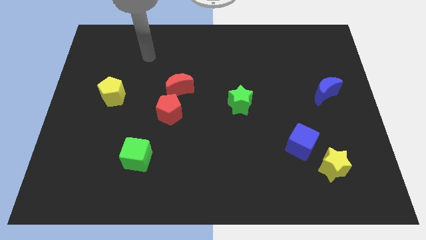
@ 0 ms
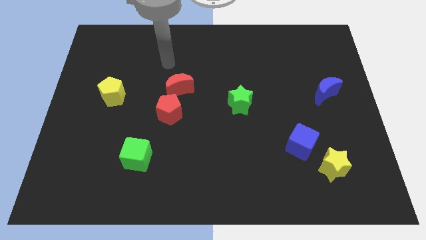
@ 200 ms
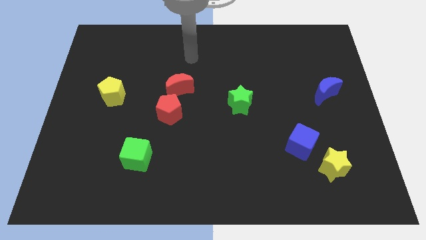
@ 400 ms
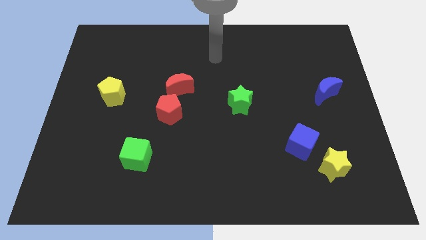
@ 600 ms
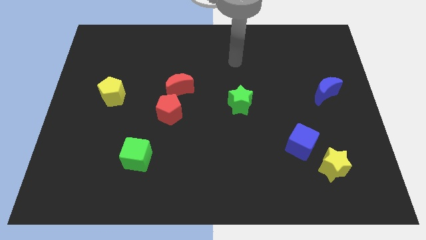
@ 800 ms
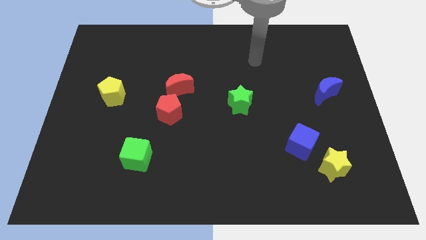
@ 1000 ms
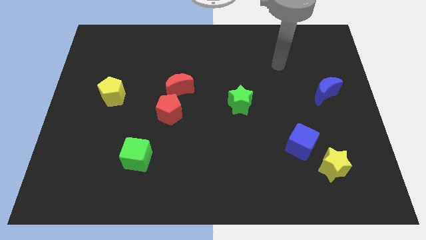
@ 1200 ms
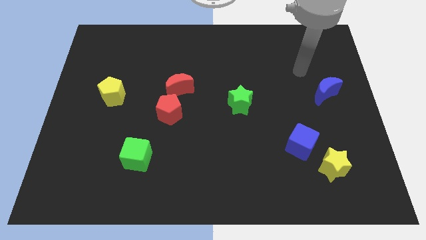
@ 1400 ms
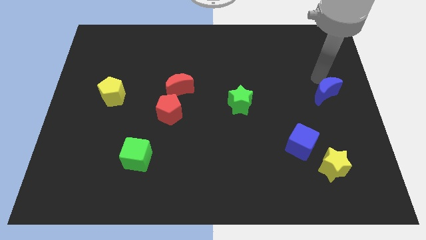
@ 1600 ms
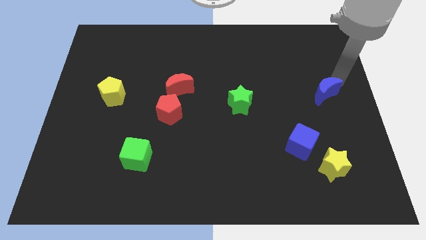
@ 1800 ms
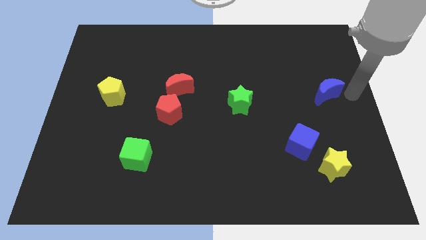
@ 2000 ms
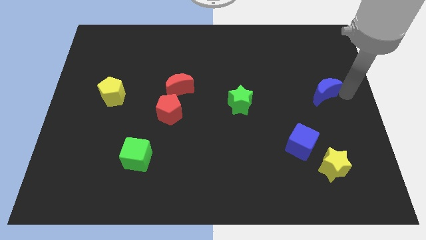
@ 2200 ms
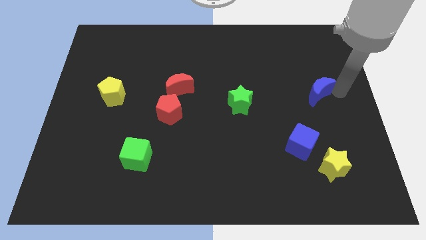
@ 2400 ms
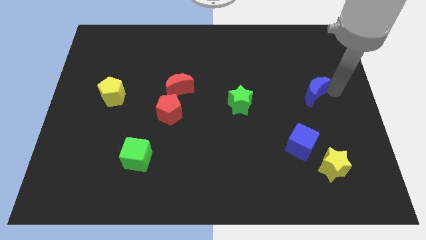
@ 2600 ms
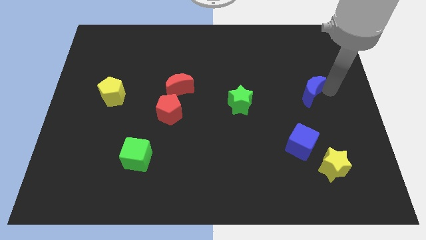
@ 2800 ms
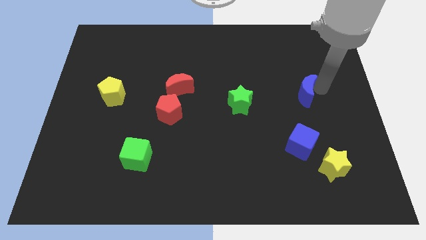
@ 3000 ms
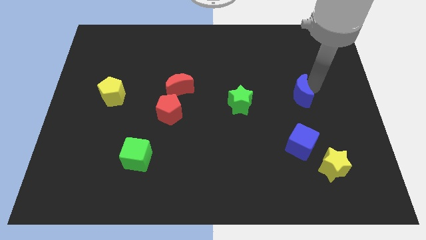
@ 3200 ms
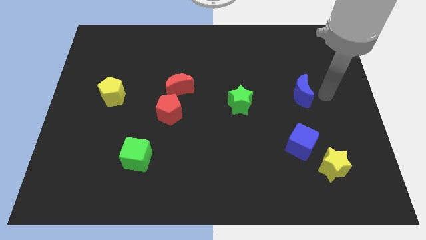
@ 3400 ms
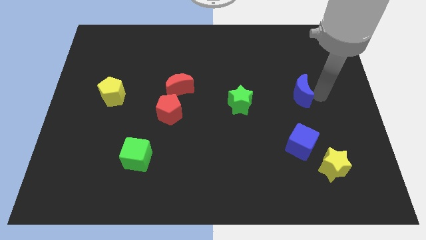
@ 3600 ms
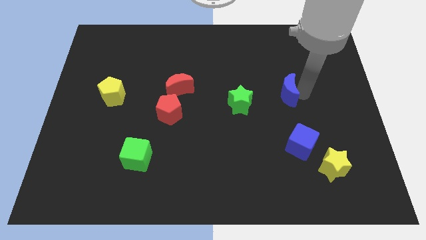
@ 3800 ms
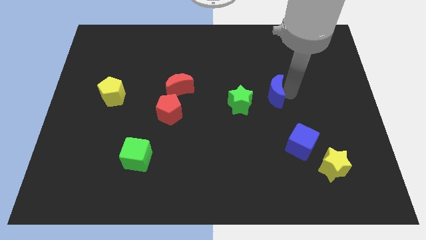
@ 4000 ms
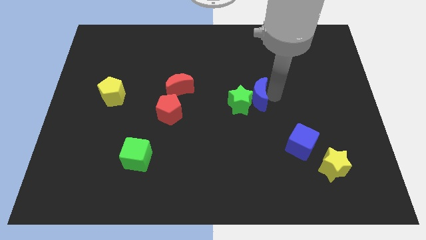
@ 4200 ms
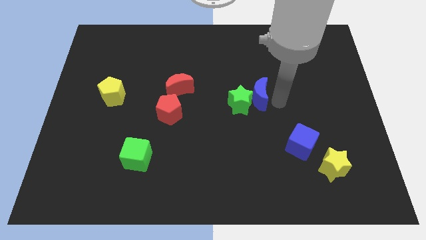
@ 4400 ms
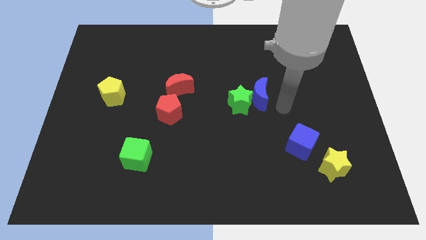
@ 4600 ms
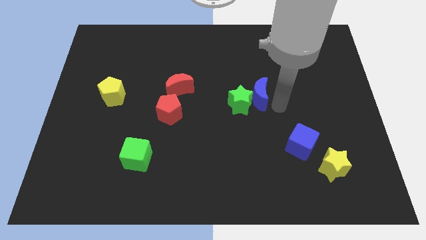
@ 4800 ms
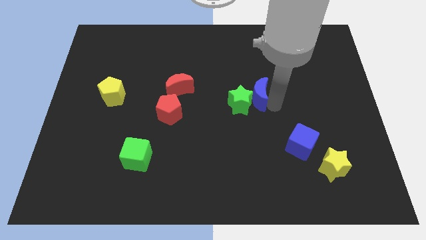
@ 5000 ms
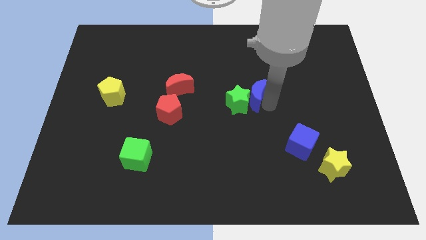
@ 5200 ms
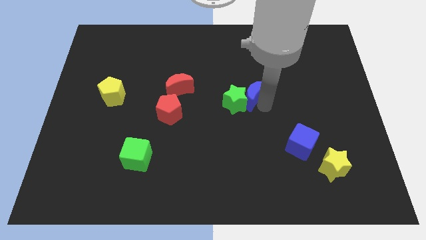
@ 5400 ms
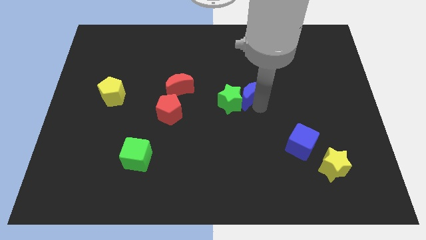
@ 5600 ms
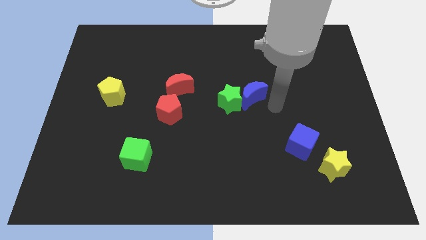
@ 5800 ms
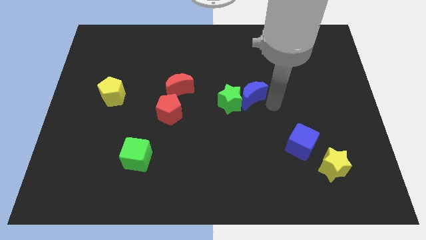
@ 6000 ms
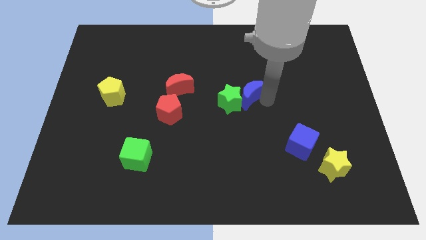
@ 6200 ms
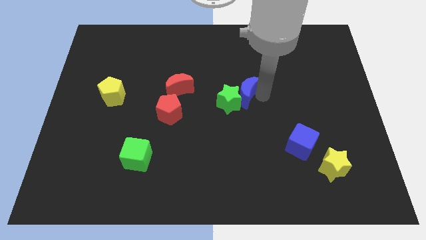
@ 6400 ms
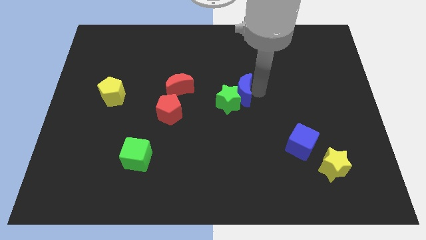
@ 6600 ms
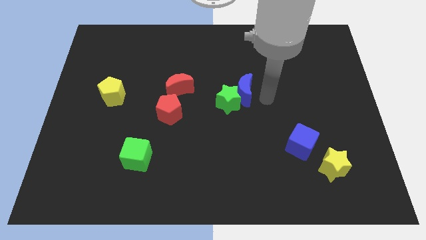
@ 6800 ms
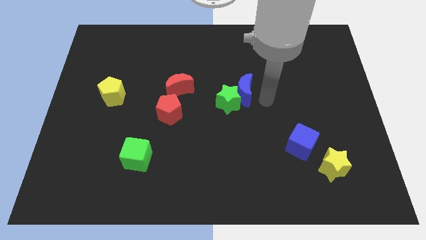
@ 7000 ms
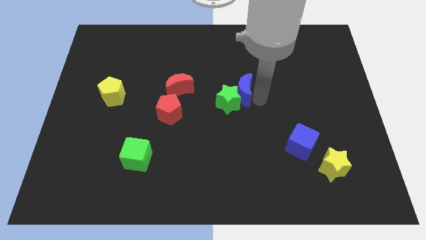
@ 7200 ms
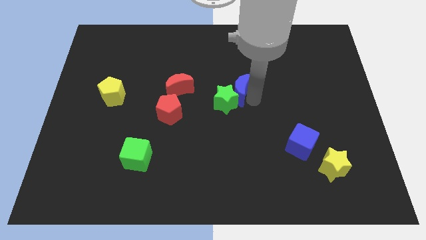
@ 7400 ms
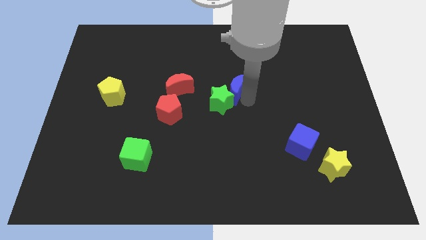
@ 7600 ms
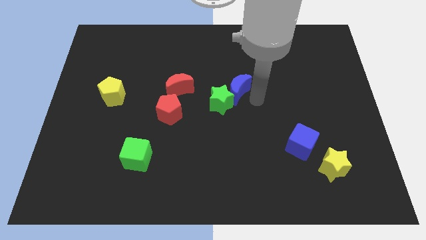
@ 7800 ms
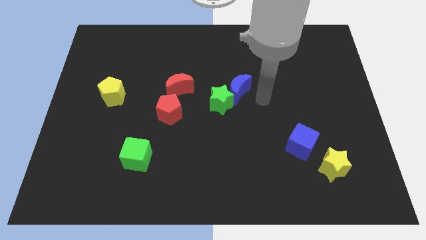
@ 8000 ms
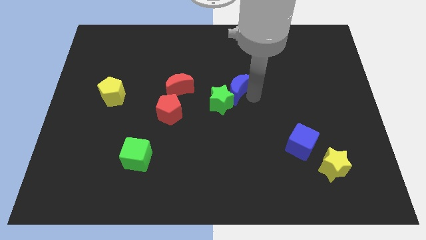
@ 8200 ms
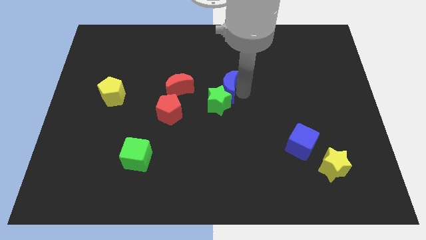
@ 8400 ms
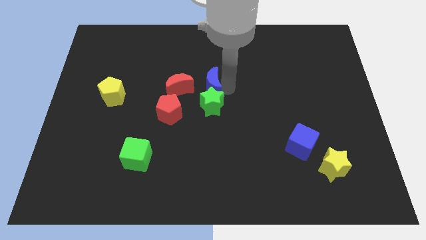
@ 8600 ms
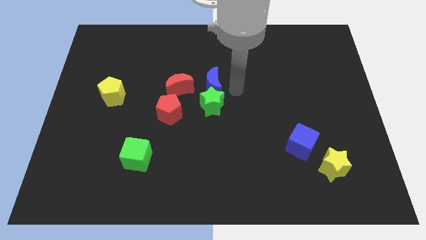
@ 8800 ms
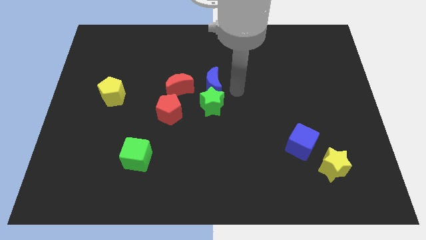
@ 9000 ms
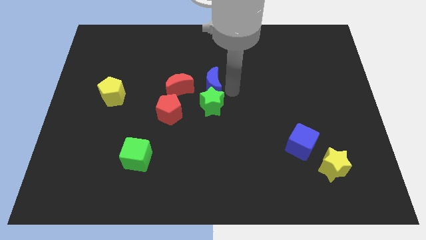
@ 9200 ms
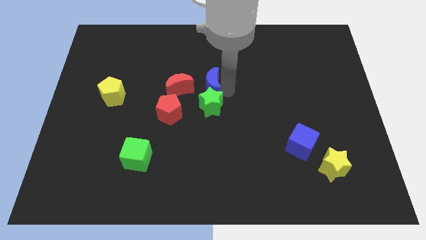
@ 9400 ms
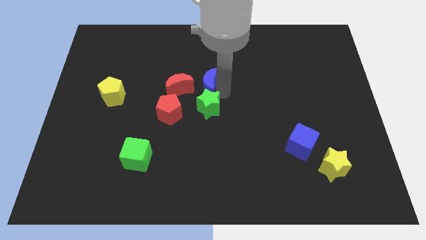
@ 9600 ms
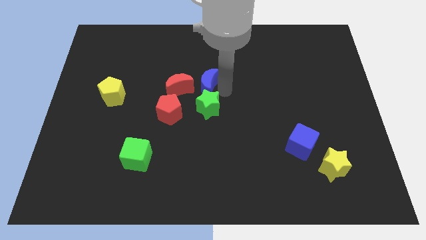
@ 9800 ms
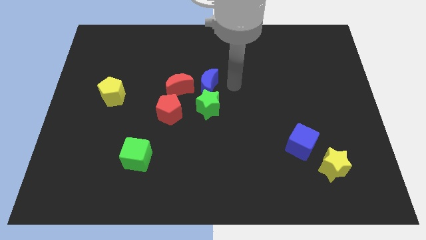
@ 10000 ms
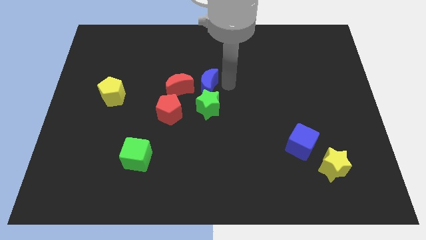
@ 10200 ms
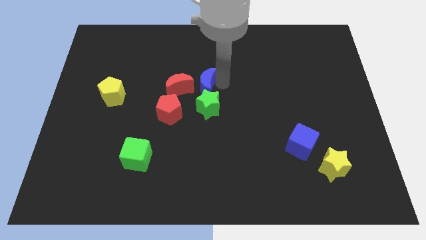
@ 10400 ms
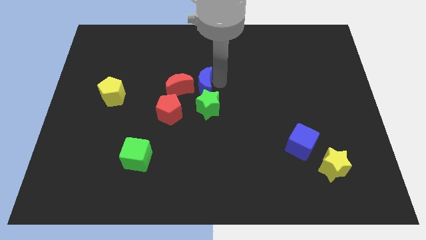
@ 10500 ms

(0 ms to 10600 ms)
push the blue moon next to the red moon

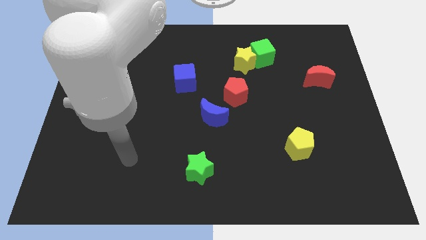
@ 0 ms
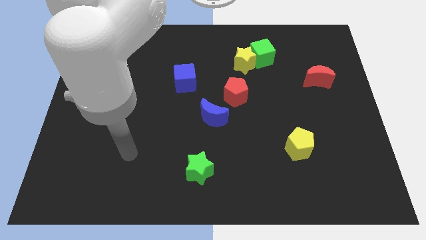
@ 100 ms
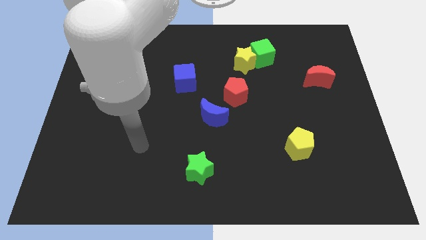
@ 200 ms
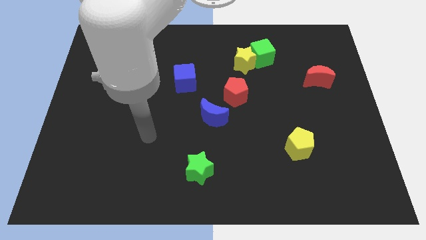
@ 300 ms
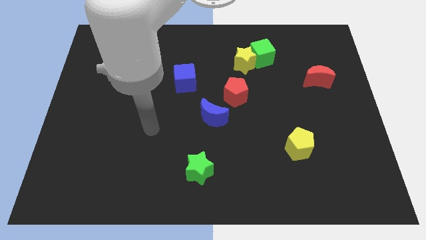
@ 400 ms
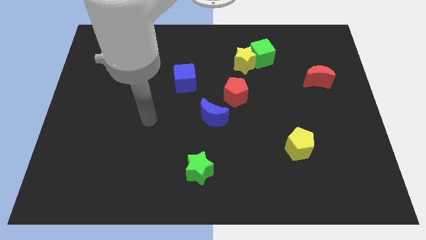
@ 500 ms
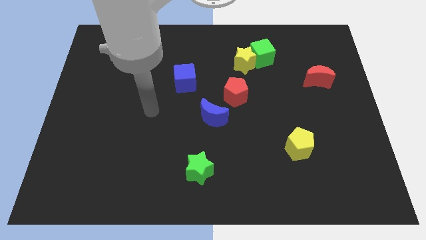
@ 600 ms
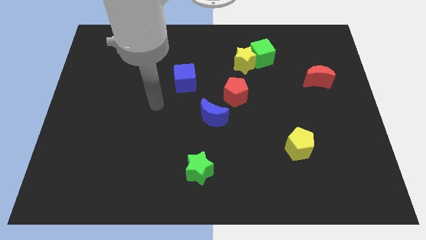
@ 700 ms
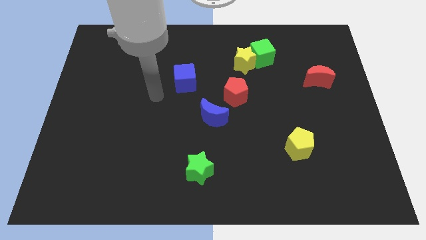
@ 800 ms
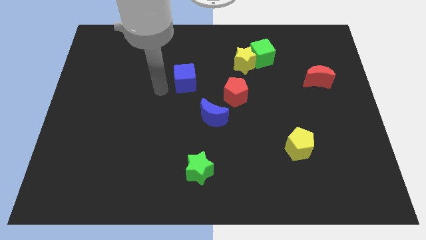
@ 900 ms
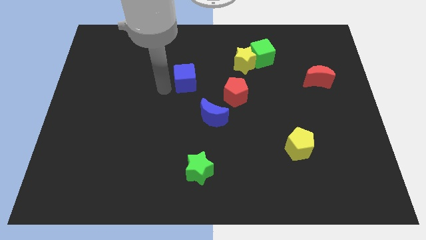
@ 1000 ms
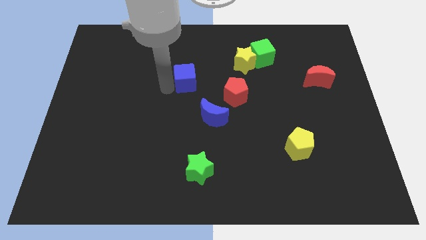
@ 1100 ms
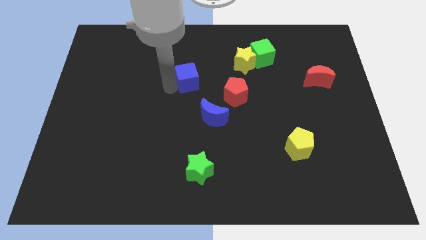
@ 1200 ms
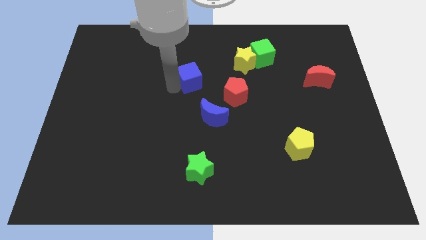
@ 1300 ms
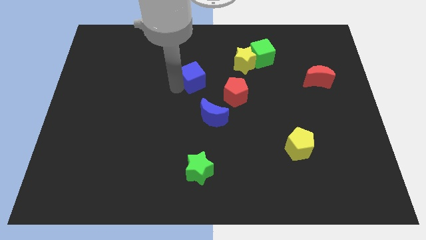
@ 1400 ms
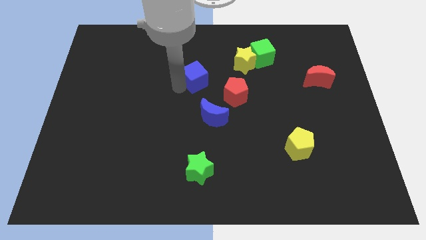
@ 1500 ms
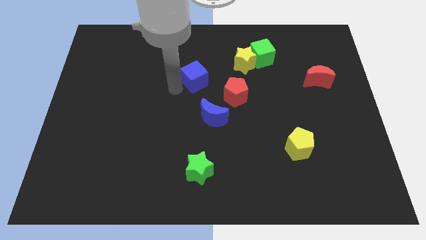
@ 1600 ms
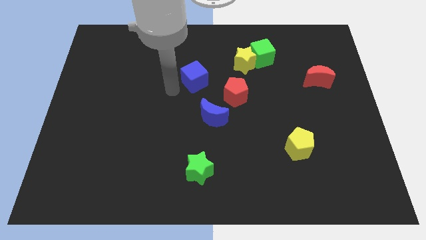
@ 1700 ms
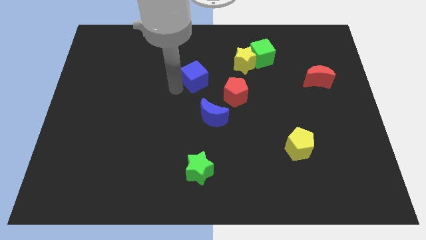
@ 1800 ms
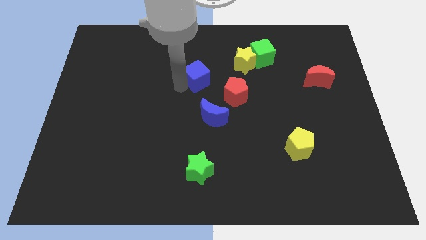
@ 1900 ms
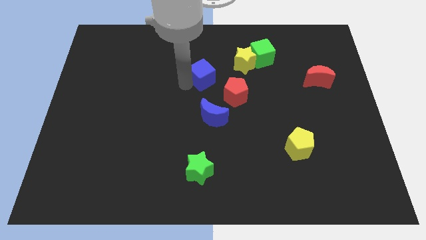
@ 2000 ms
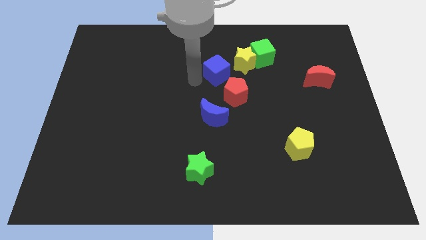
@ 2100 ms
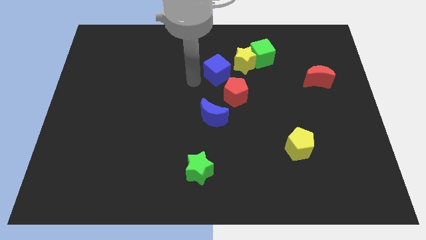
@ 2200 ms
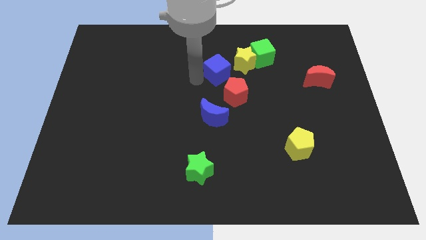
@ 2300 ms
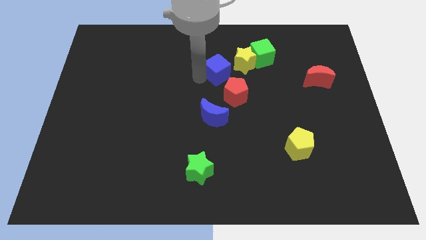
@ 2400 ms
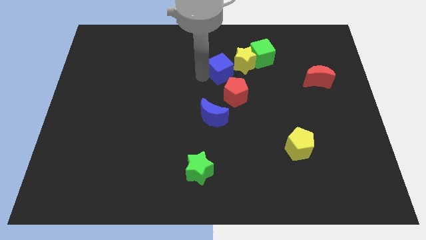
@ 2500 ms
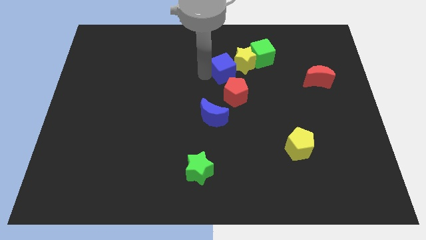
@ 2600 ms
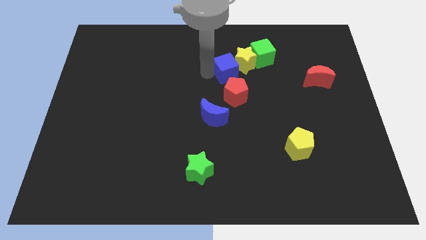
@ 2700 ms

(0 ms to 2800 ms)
push the blue cube to the yellow star
